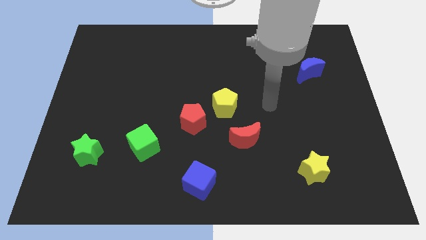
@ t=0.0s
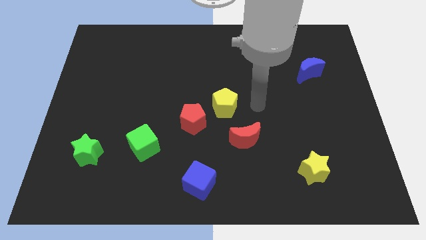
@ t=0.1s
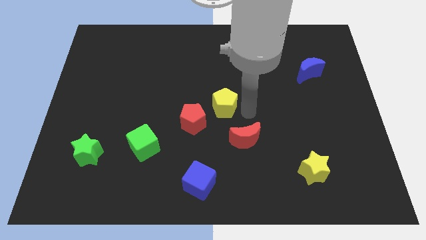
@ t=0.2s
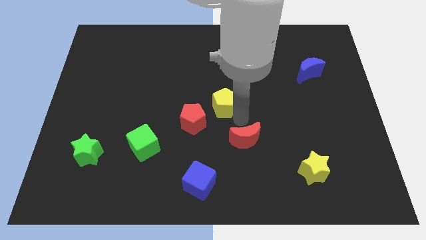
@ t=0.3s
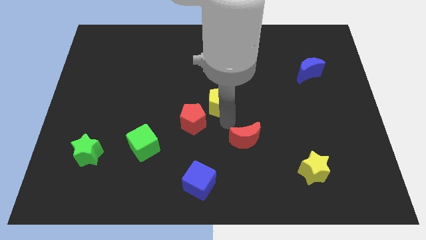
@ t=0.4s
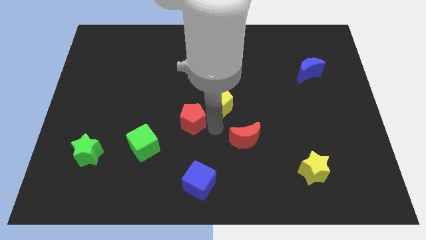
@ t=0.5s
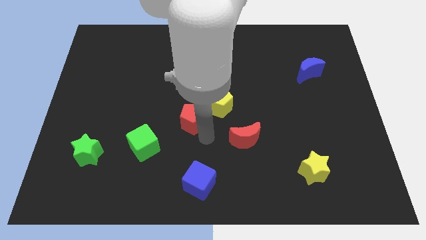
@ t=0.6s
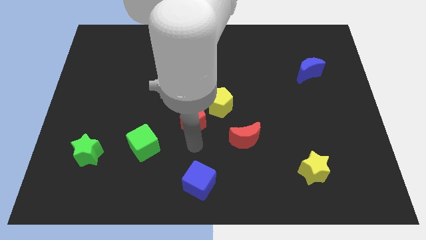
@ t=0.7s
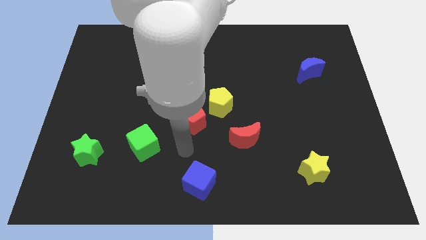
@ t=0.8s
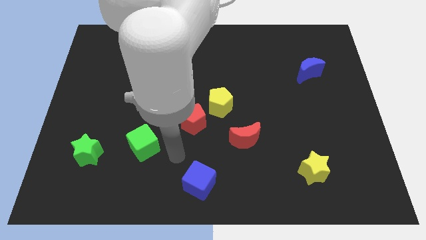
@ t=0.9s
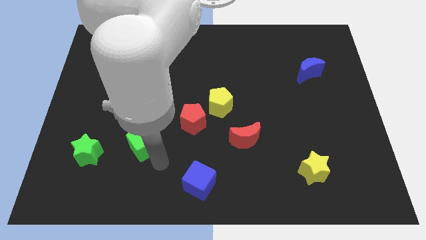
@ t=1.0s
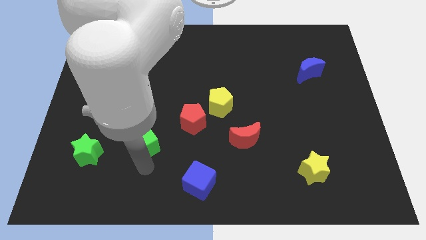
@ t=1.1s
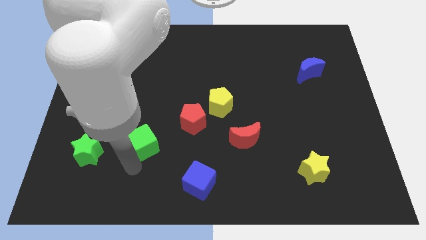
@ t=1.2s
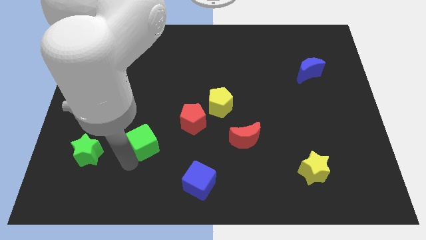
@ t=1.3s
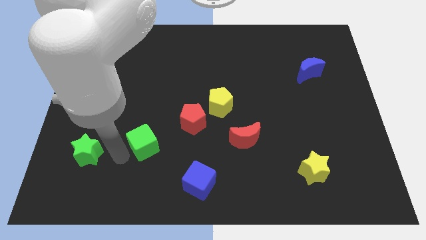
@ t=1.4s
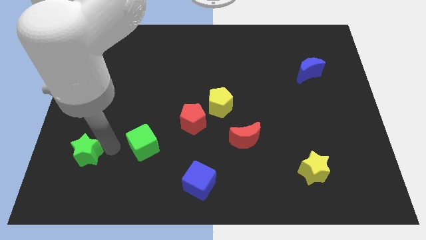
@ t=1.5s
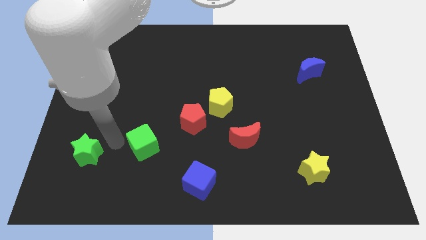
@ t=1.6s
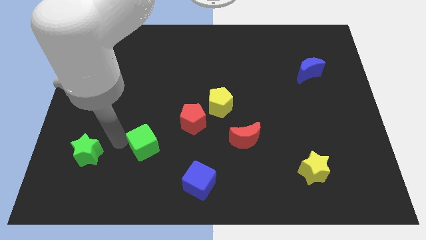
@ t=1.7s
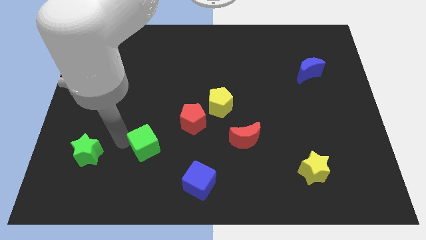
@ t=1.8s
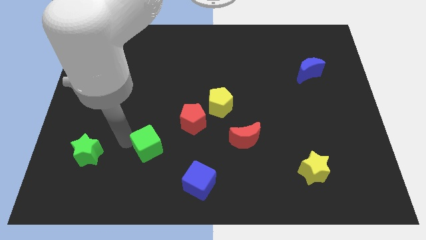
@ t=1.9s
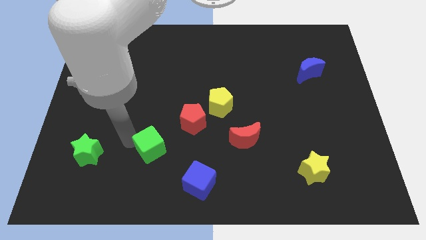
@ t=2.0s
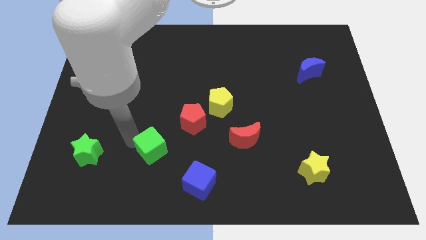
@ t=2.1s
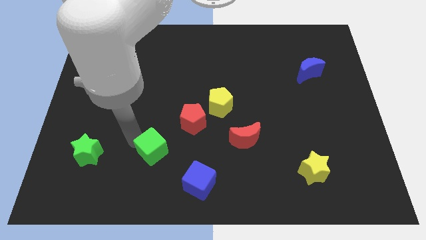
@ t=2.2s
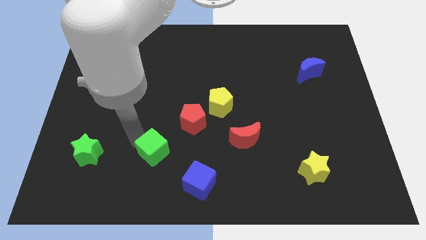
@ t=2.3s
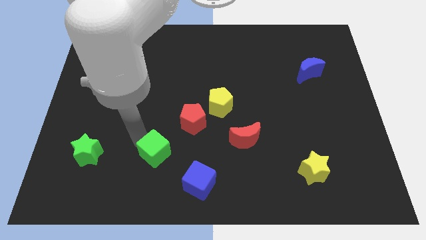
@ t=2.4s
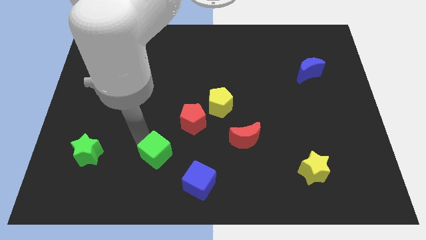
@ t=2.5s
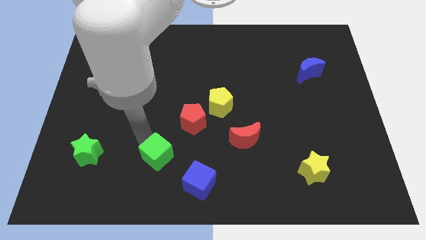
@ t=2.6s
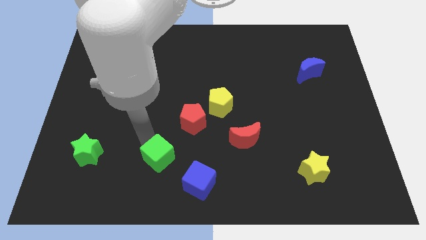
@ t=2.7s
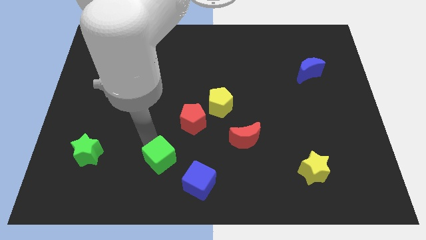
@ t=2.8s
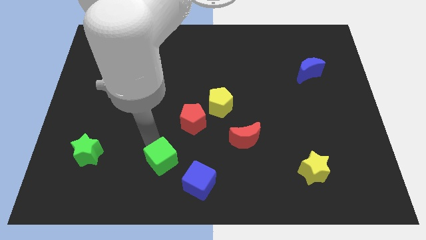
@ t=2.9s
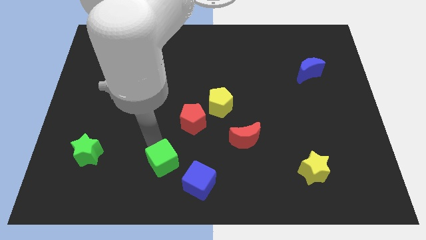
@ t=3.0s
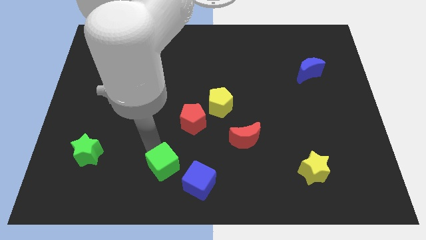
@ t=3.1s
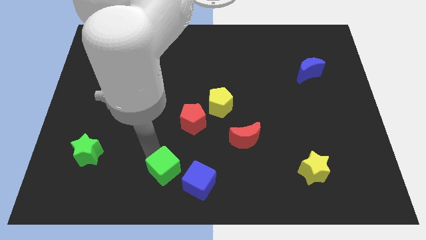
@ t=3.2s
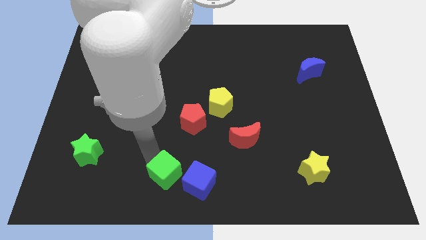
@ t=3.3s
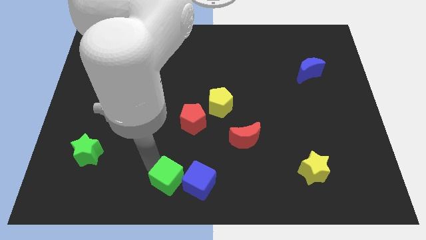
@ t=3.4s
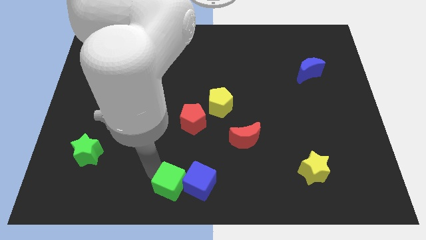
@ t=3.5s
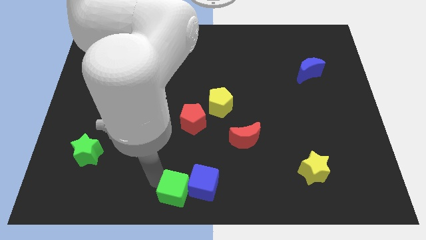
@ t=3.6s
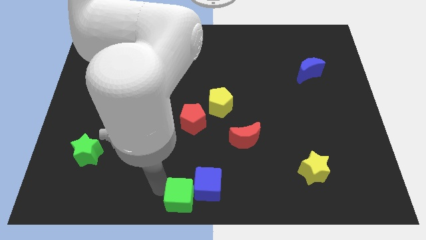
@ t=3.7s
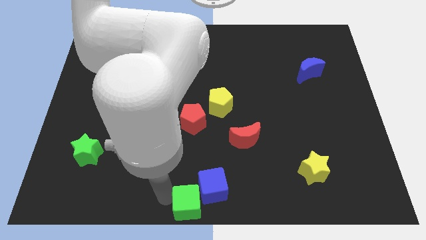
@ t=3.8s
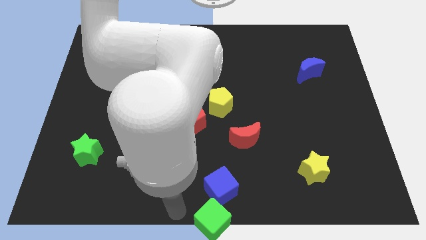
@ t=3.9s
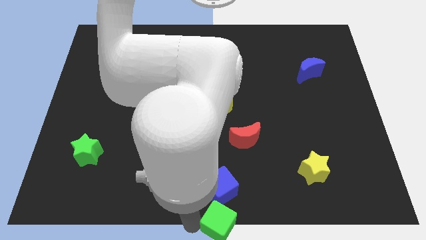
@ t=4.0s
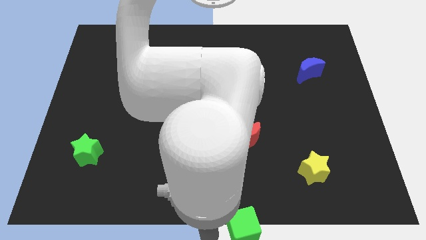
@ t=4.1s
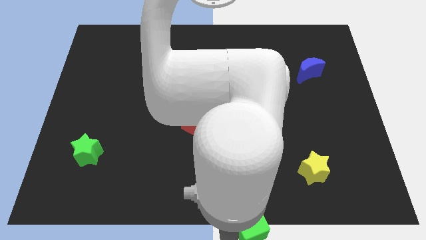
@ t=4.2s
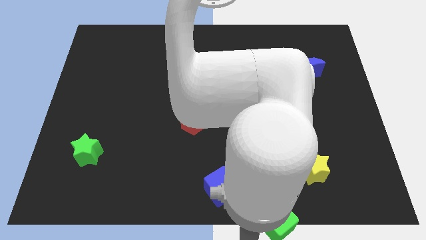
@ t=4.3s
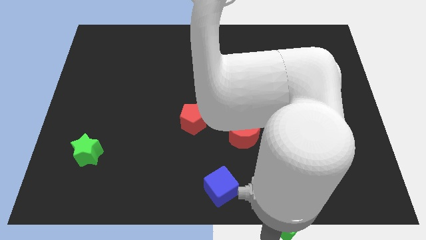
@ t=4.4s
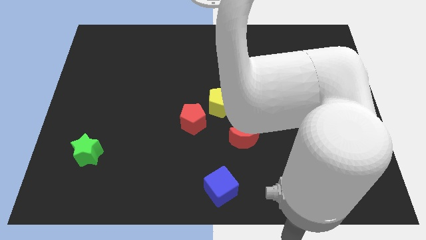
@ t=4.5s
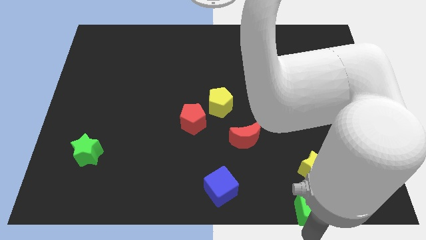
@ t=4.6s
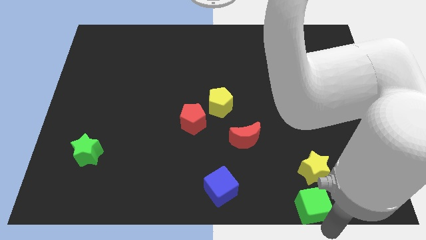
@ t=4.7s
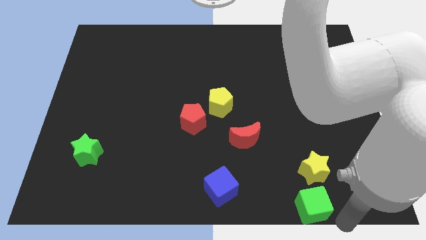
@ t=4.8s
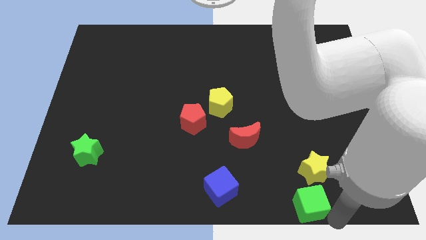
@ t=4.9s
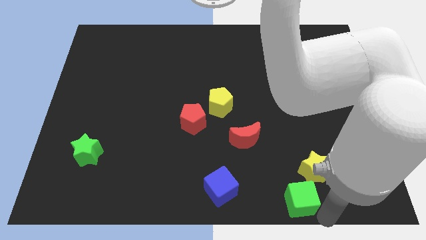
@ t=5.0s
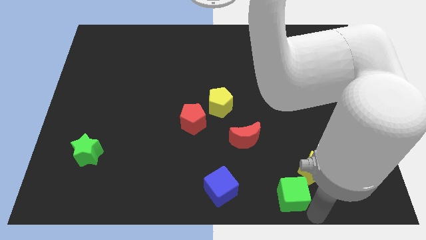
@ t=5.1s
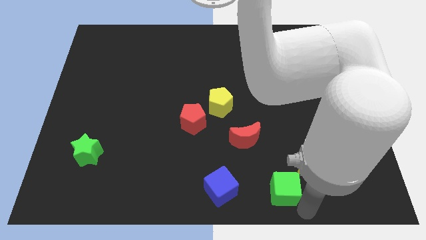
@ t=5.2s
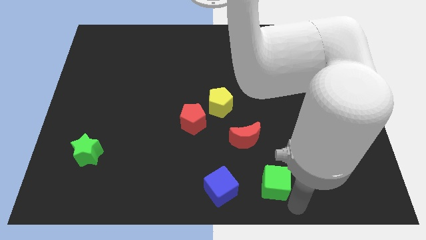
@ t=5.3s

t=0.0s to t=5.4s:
put the green cube to the bottom right of the red moon

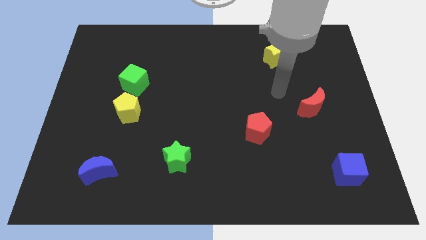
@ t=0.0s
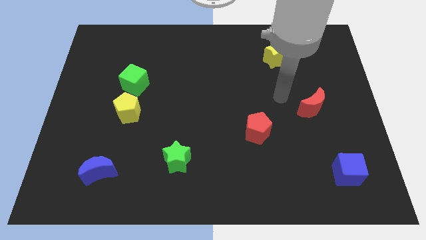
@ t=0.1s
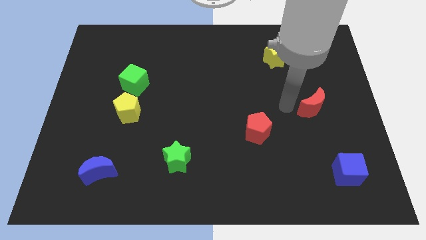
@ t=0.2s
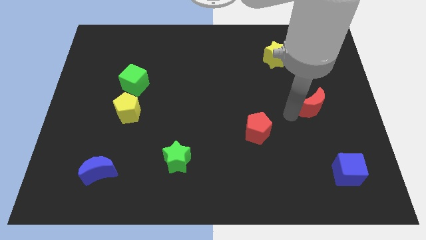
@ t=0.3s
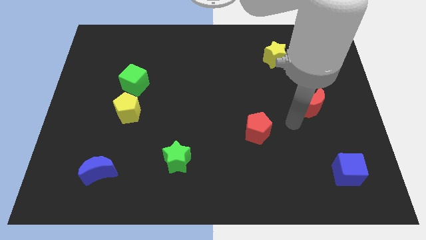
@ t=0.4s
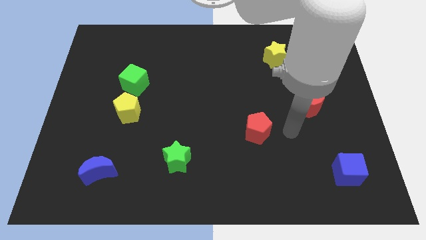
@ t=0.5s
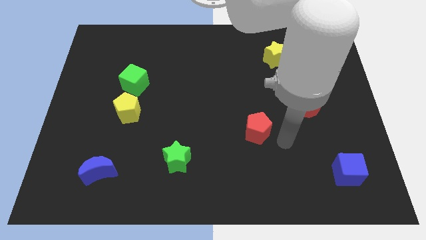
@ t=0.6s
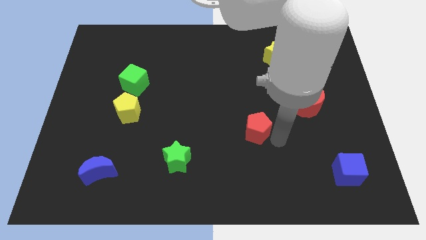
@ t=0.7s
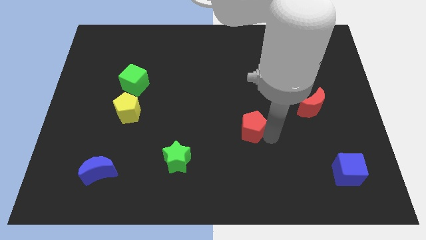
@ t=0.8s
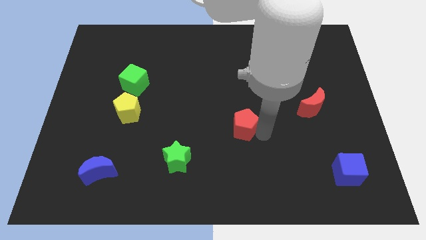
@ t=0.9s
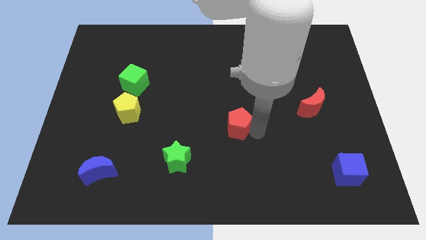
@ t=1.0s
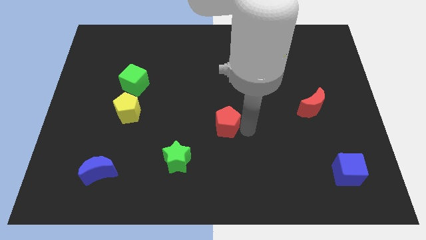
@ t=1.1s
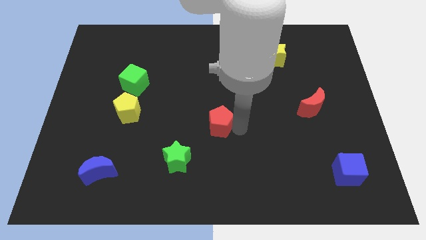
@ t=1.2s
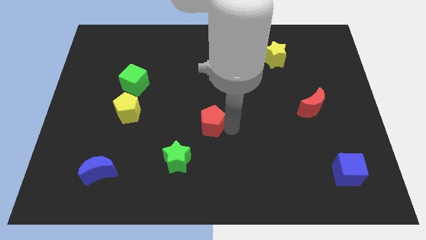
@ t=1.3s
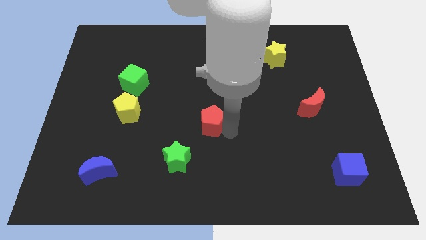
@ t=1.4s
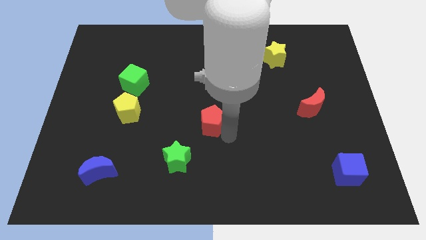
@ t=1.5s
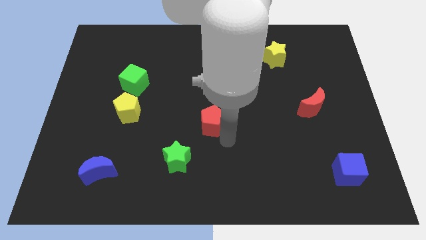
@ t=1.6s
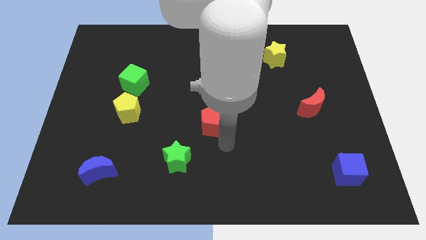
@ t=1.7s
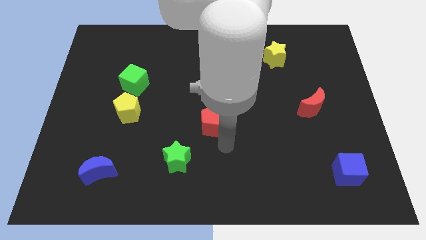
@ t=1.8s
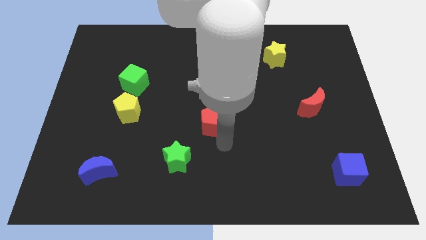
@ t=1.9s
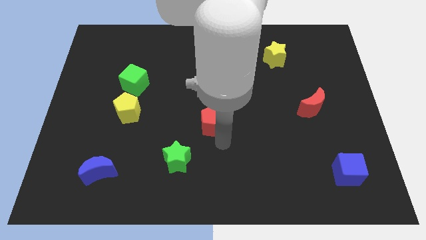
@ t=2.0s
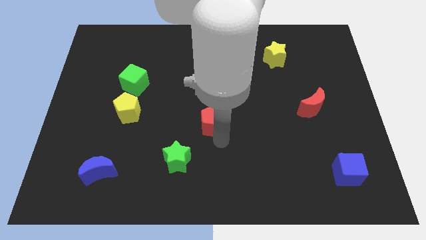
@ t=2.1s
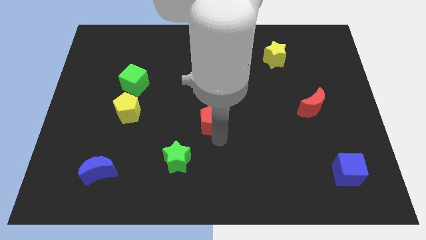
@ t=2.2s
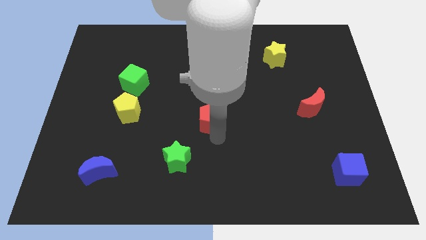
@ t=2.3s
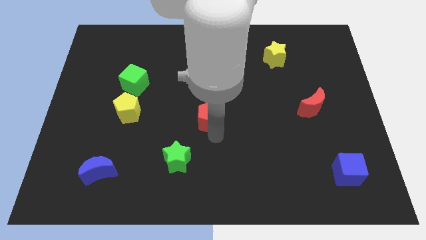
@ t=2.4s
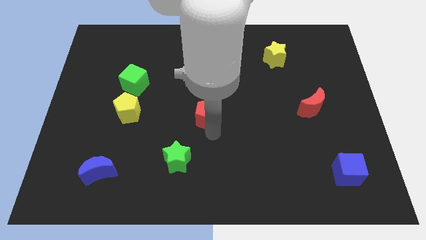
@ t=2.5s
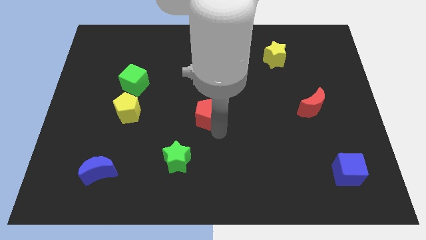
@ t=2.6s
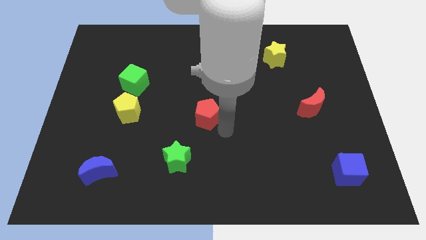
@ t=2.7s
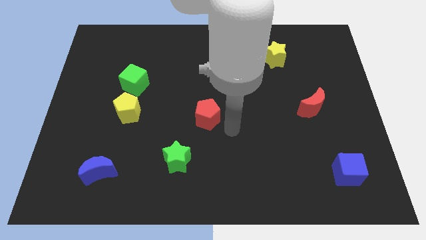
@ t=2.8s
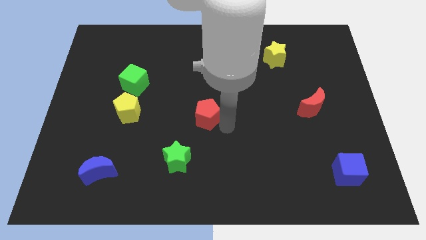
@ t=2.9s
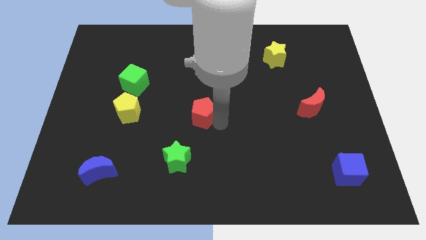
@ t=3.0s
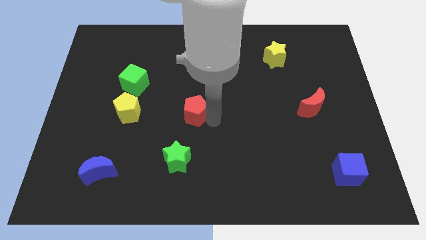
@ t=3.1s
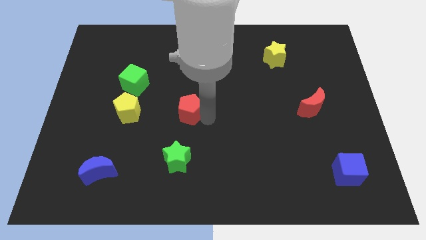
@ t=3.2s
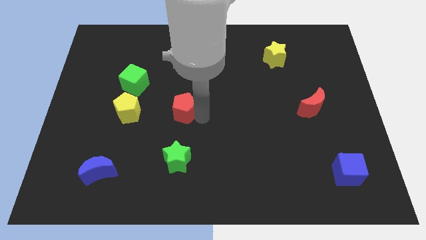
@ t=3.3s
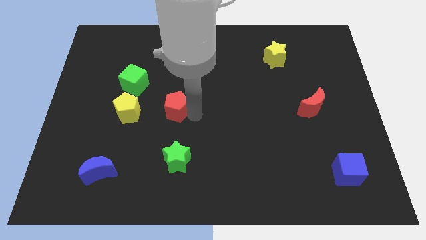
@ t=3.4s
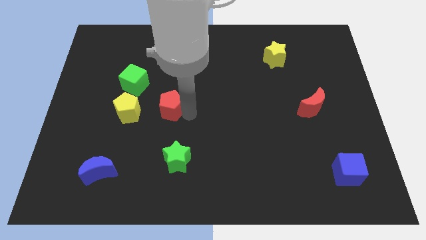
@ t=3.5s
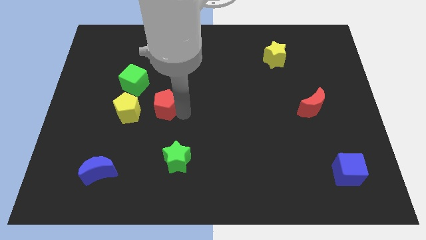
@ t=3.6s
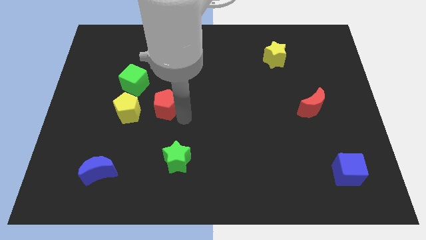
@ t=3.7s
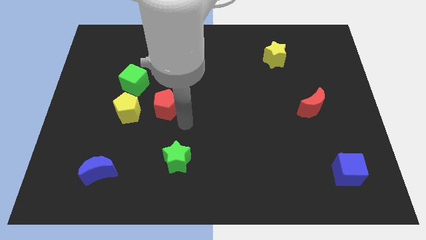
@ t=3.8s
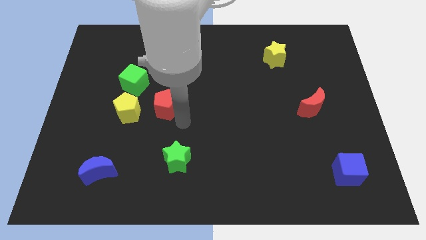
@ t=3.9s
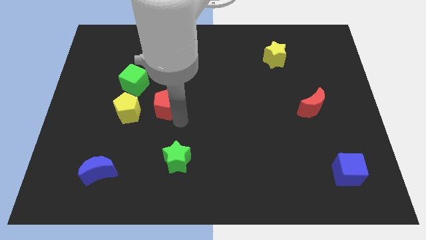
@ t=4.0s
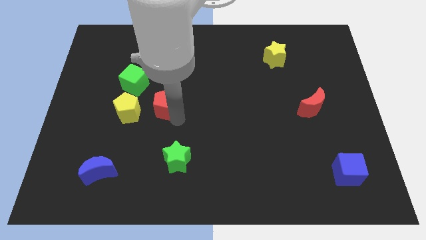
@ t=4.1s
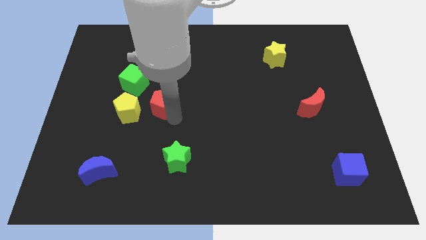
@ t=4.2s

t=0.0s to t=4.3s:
slide the red pentagon diagonally up and to the right of the yellow pentagon
